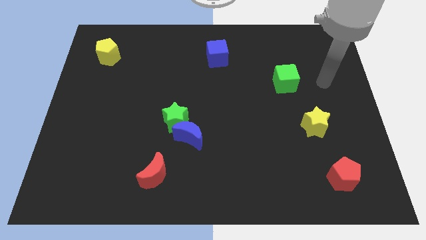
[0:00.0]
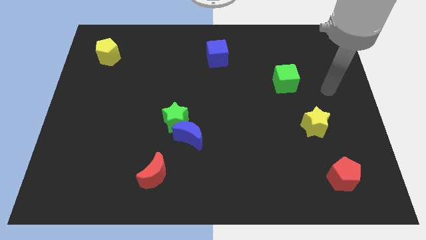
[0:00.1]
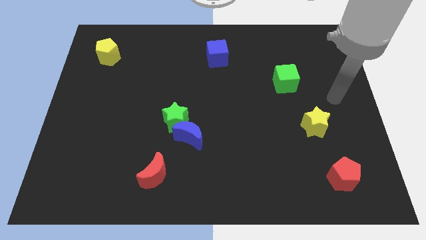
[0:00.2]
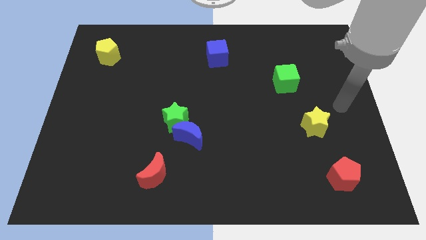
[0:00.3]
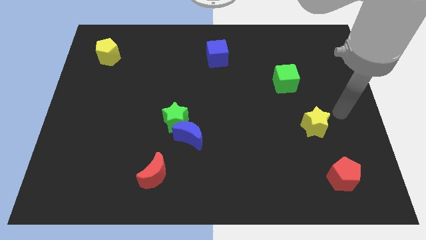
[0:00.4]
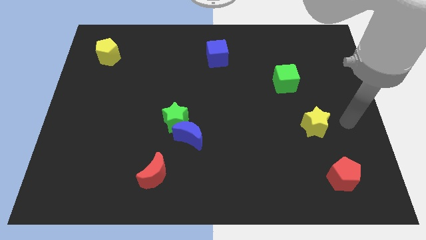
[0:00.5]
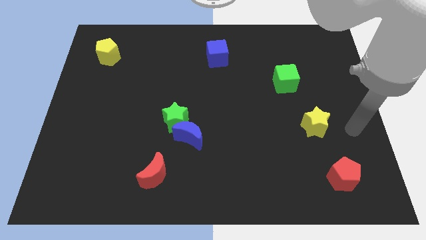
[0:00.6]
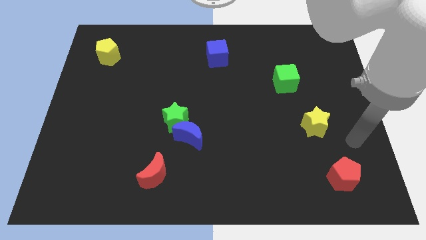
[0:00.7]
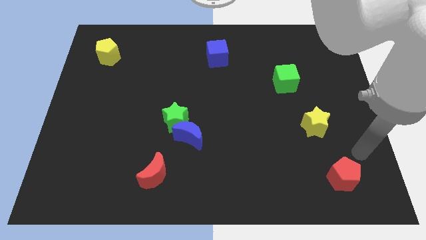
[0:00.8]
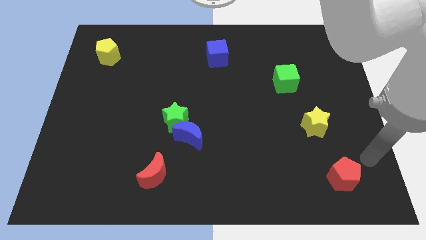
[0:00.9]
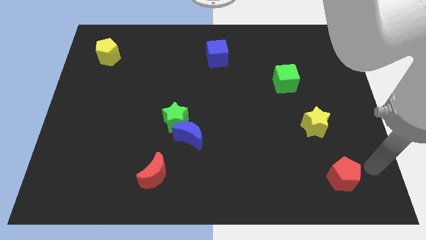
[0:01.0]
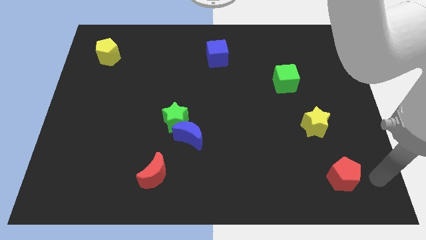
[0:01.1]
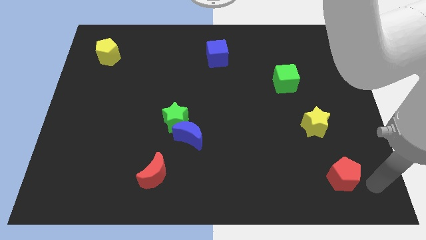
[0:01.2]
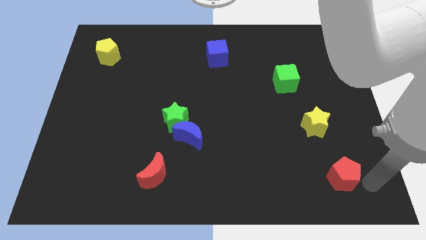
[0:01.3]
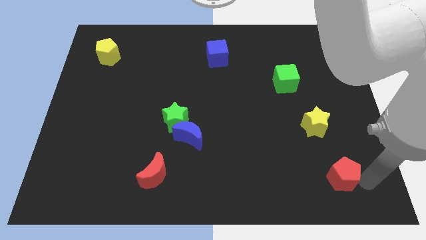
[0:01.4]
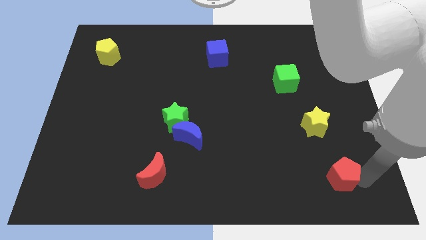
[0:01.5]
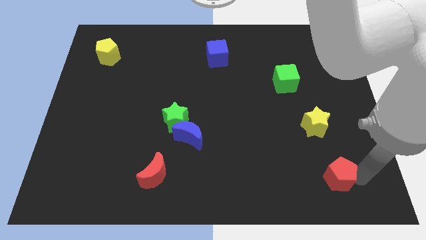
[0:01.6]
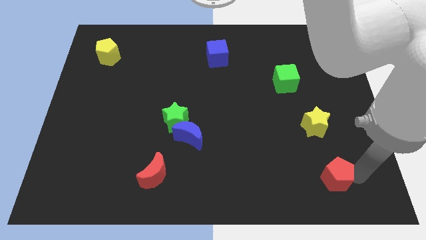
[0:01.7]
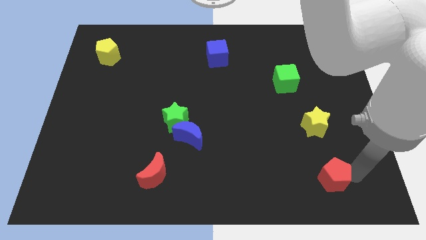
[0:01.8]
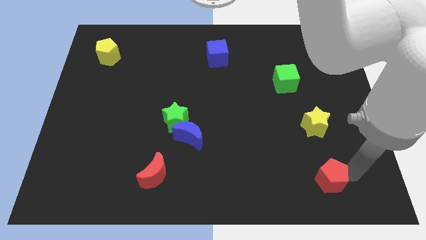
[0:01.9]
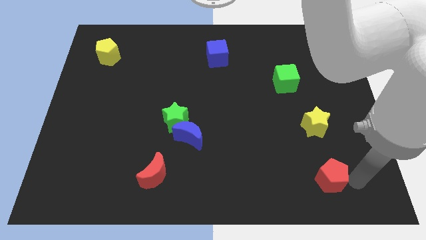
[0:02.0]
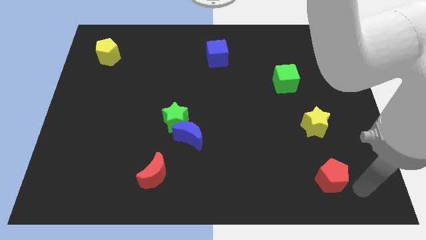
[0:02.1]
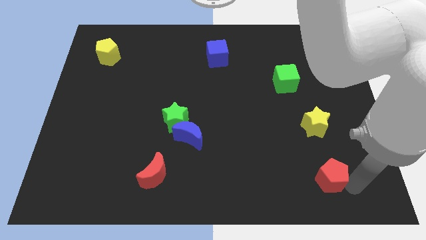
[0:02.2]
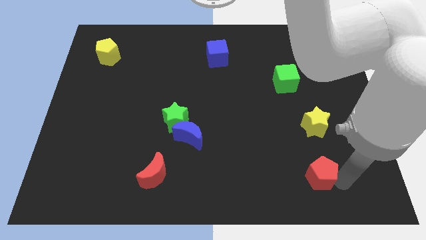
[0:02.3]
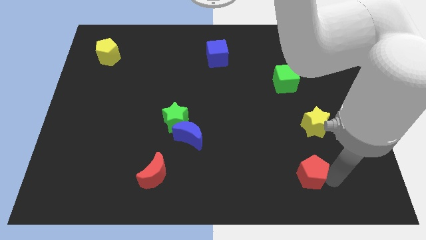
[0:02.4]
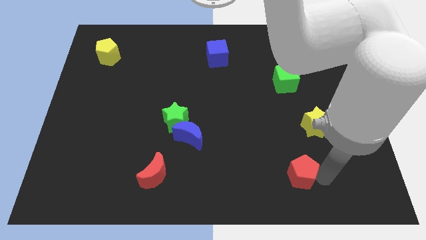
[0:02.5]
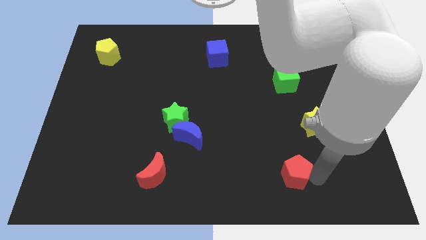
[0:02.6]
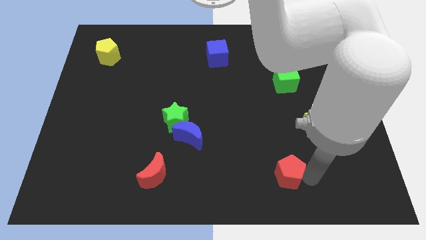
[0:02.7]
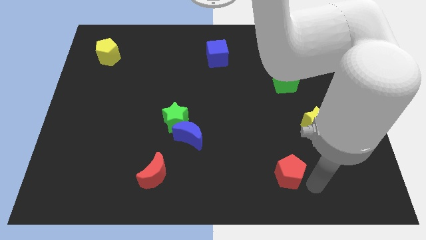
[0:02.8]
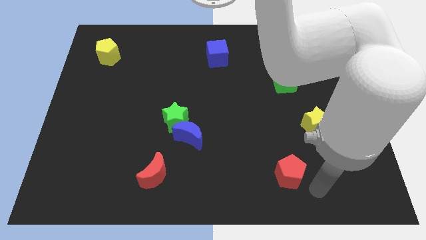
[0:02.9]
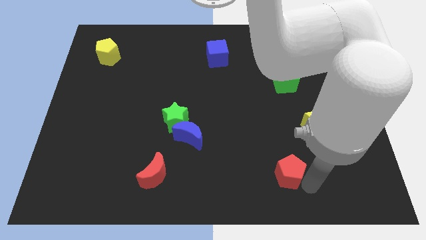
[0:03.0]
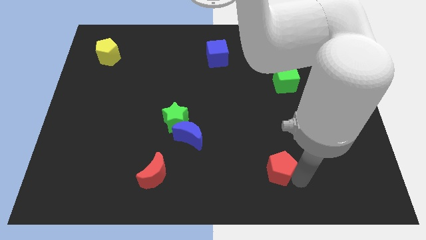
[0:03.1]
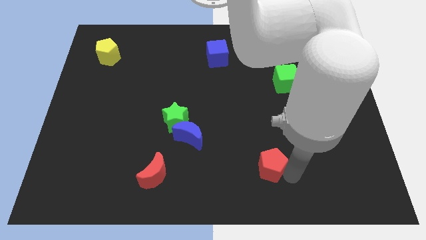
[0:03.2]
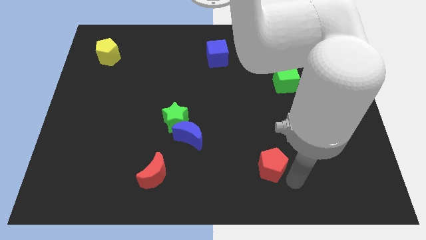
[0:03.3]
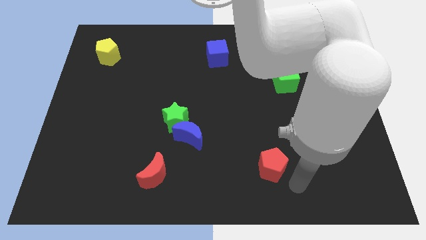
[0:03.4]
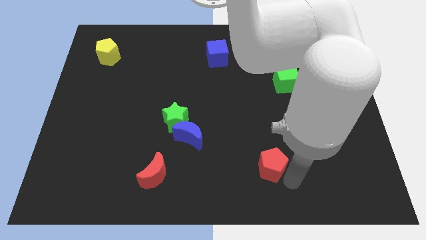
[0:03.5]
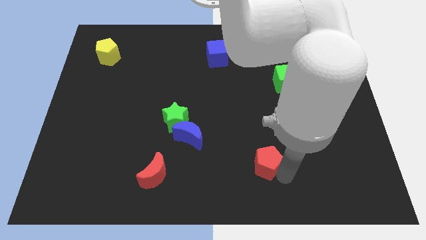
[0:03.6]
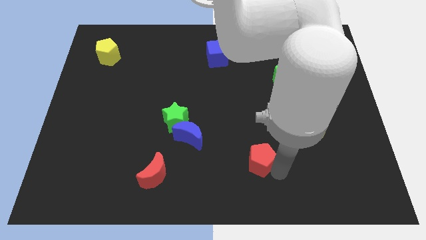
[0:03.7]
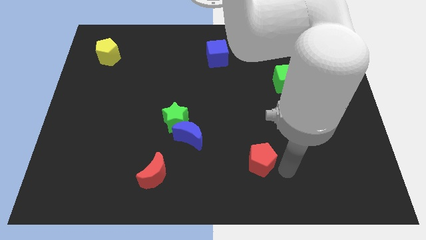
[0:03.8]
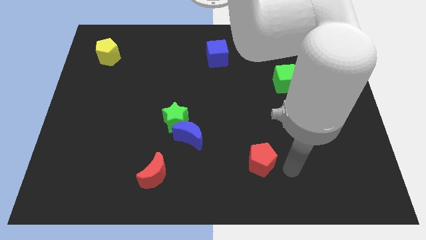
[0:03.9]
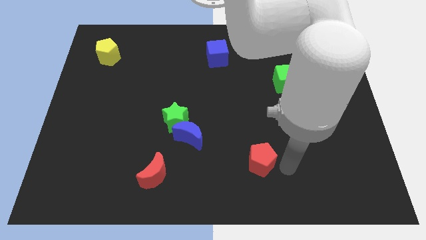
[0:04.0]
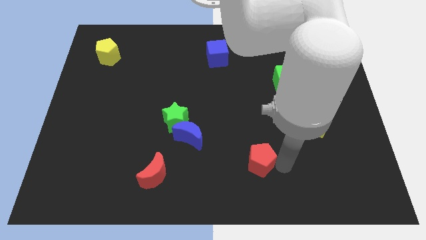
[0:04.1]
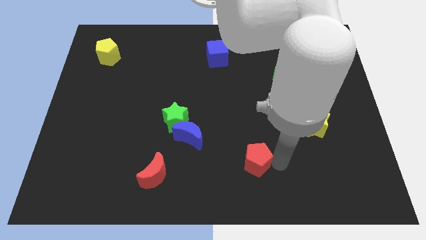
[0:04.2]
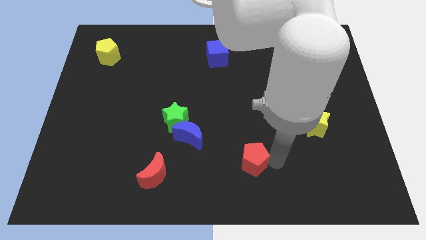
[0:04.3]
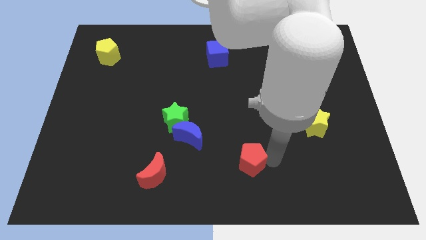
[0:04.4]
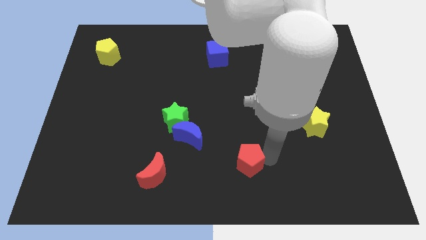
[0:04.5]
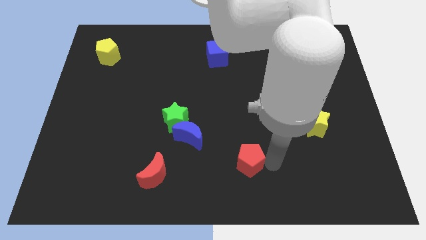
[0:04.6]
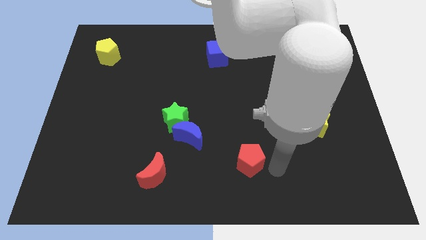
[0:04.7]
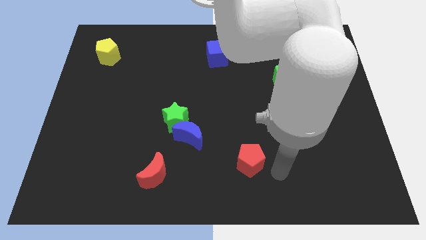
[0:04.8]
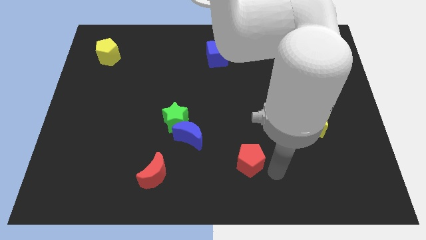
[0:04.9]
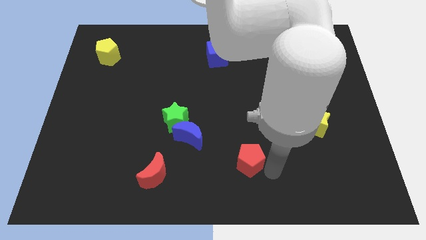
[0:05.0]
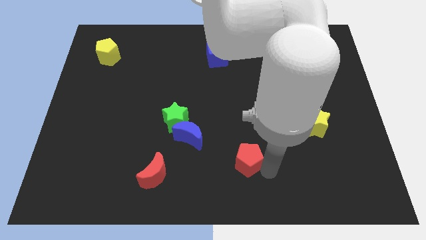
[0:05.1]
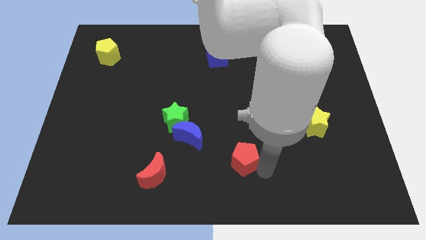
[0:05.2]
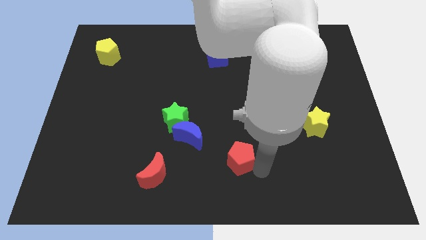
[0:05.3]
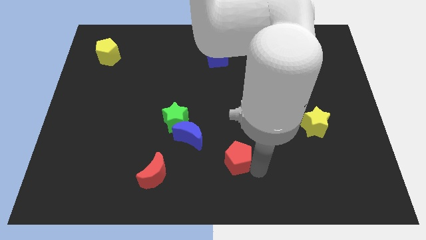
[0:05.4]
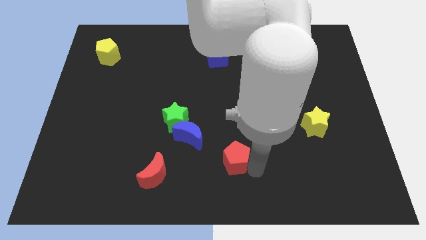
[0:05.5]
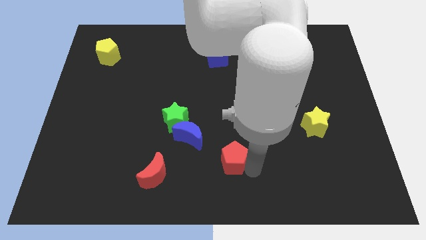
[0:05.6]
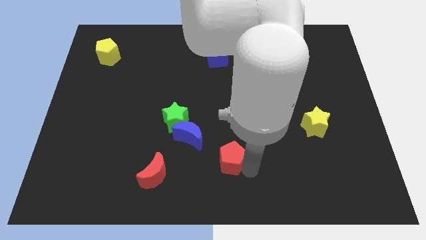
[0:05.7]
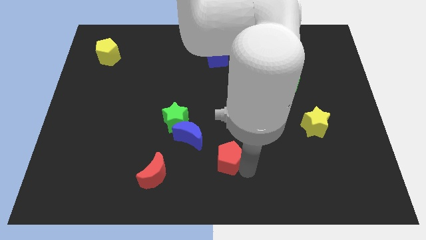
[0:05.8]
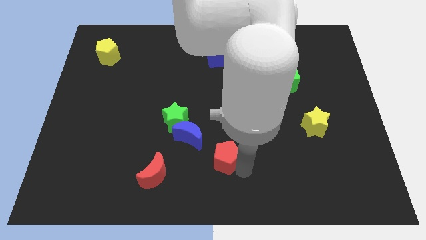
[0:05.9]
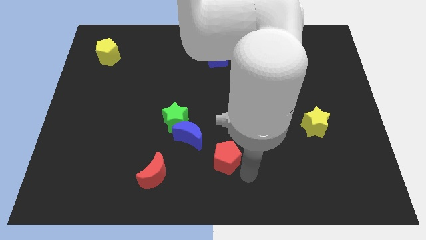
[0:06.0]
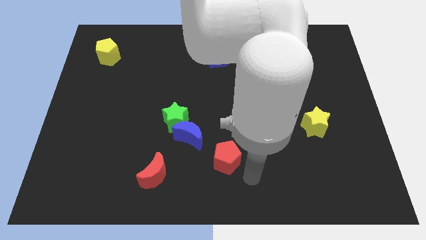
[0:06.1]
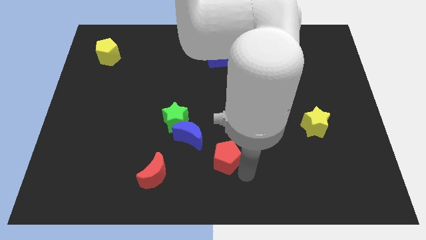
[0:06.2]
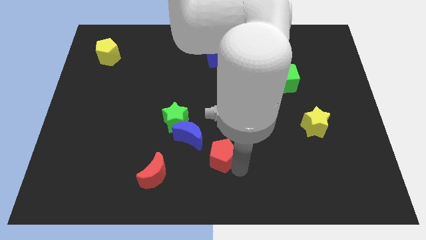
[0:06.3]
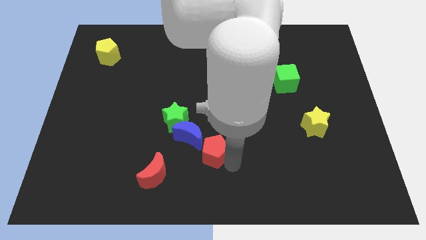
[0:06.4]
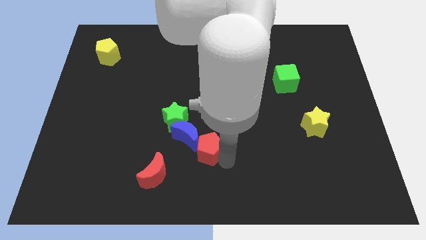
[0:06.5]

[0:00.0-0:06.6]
move the red pentagon towards the blue moon
